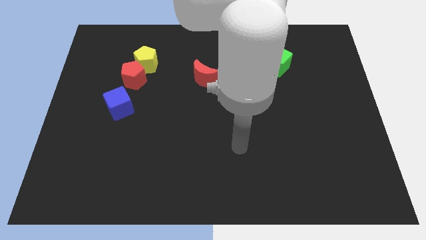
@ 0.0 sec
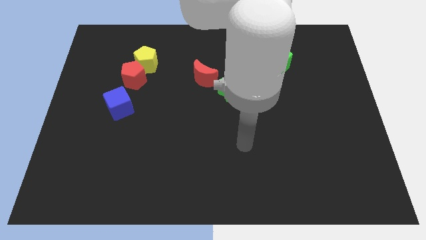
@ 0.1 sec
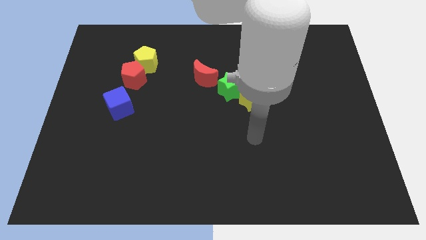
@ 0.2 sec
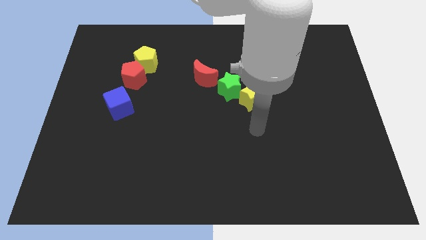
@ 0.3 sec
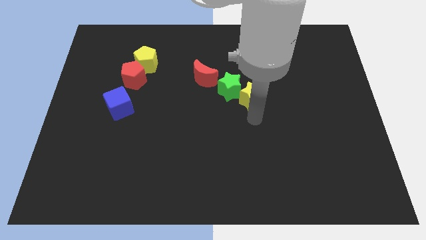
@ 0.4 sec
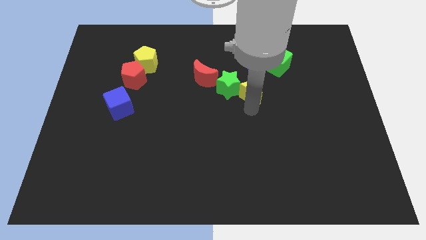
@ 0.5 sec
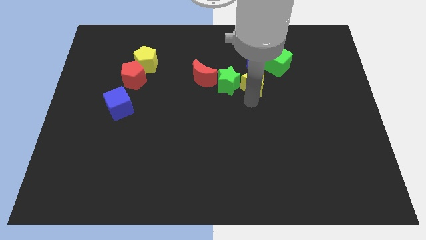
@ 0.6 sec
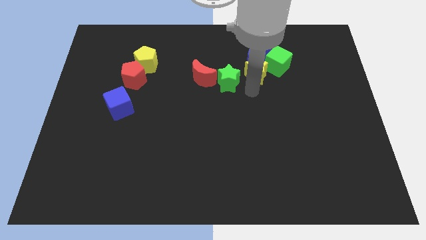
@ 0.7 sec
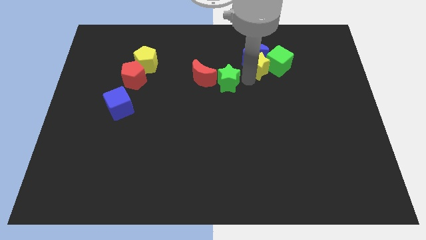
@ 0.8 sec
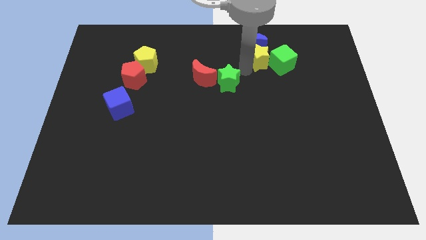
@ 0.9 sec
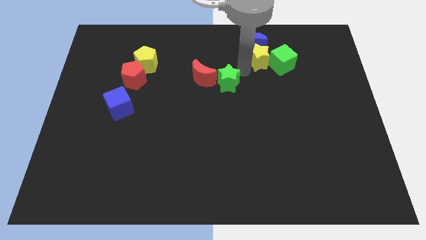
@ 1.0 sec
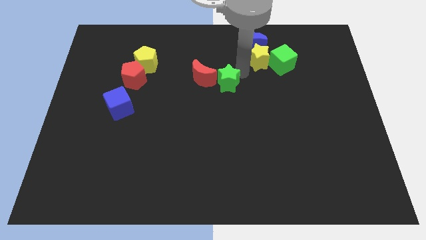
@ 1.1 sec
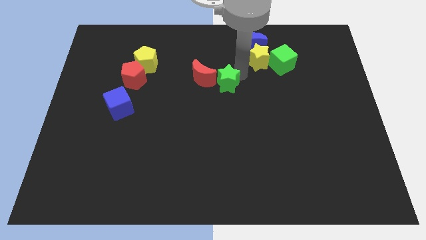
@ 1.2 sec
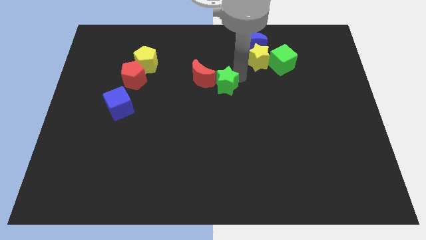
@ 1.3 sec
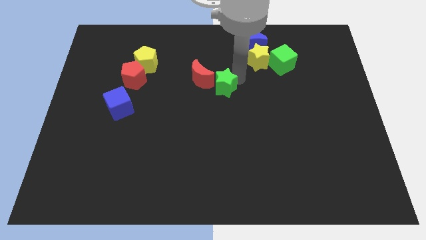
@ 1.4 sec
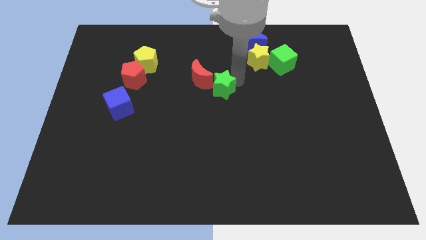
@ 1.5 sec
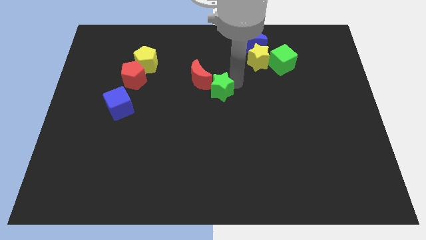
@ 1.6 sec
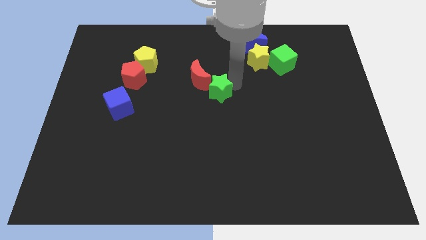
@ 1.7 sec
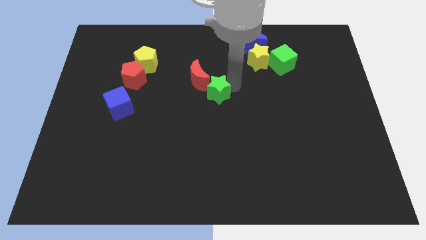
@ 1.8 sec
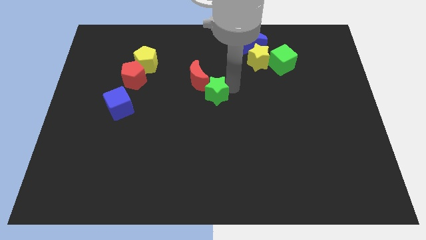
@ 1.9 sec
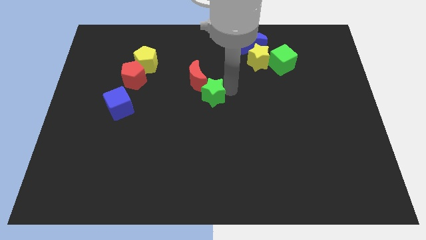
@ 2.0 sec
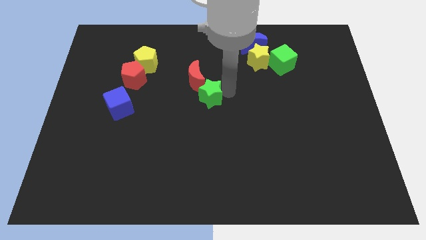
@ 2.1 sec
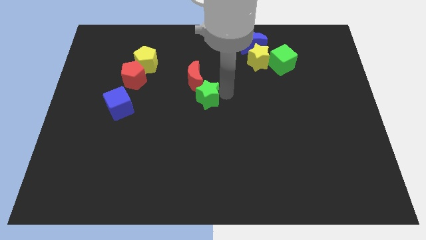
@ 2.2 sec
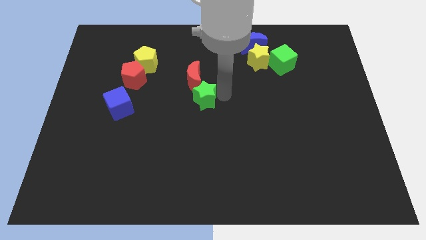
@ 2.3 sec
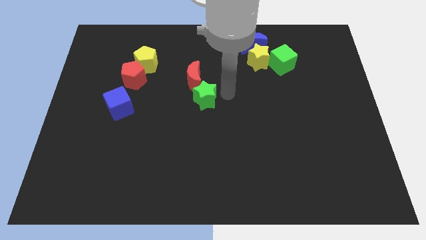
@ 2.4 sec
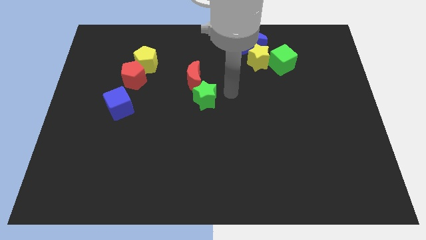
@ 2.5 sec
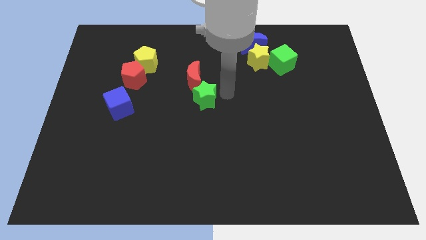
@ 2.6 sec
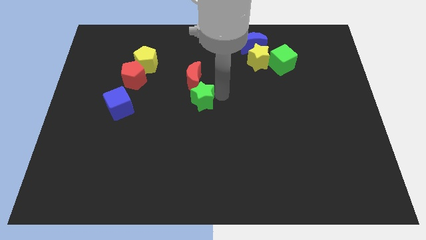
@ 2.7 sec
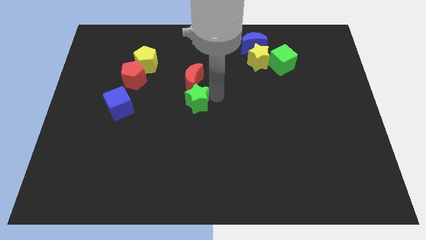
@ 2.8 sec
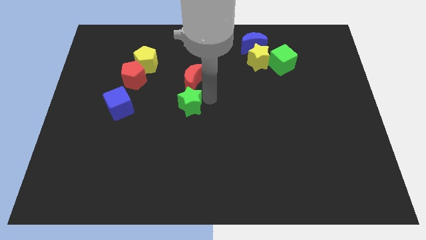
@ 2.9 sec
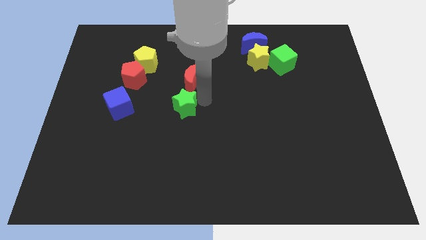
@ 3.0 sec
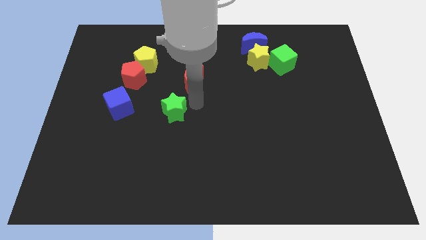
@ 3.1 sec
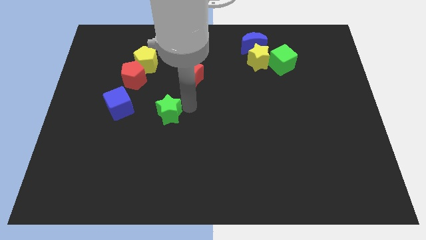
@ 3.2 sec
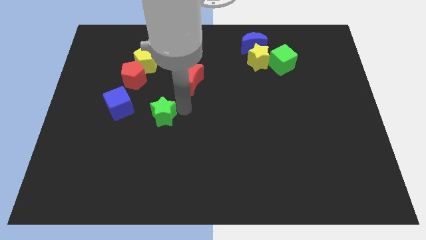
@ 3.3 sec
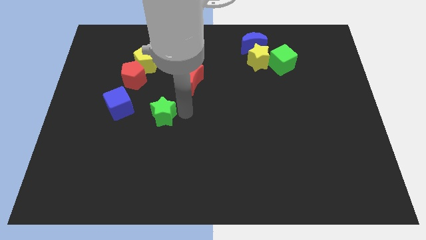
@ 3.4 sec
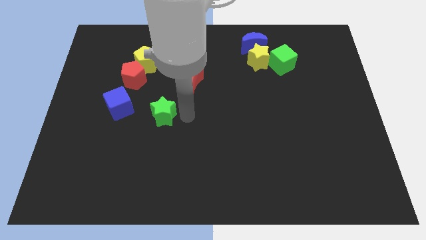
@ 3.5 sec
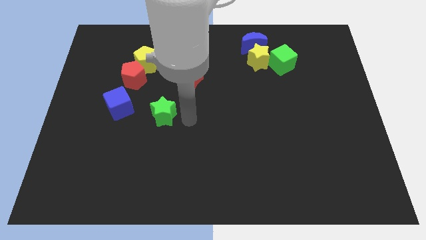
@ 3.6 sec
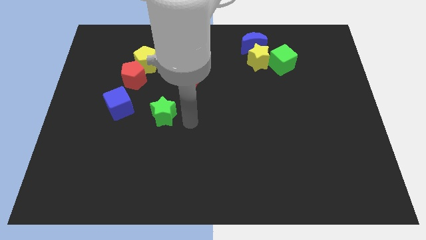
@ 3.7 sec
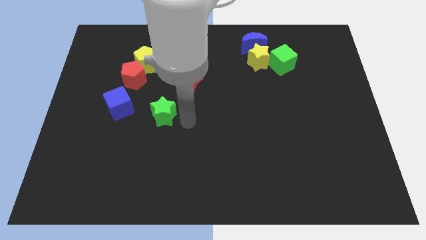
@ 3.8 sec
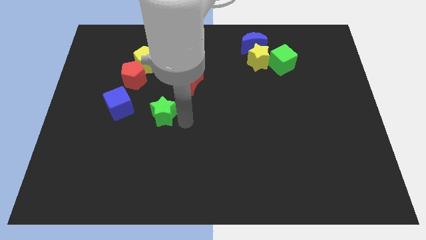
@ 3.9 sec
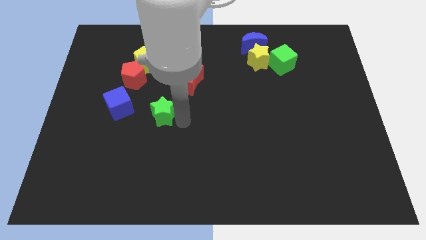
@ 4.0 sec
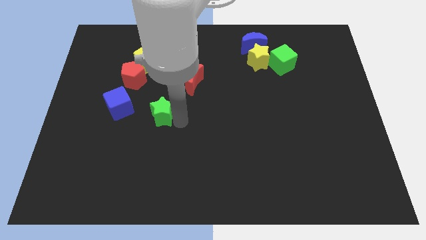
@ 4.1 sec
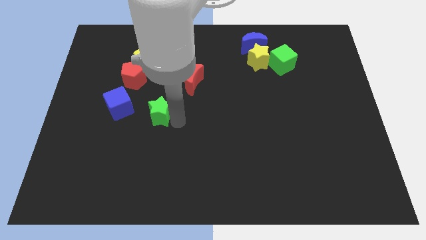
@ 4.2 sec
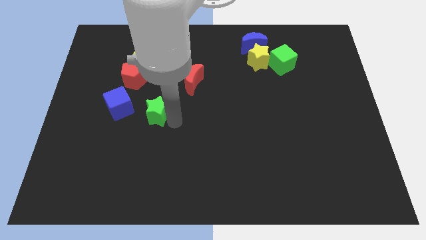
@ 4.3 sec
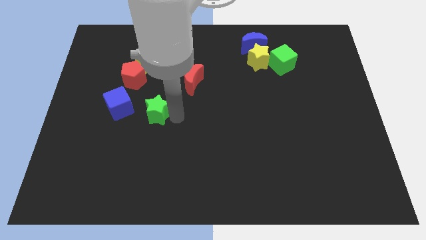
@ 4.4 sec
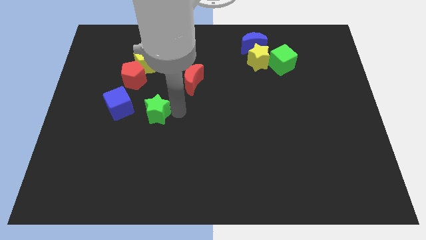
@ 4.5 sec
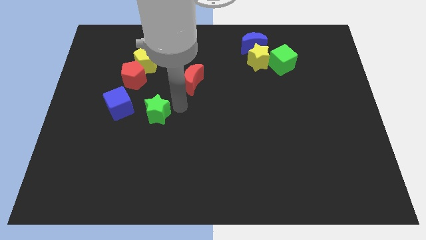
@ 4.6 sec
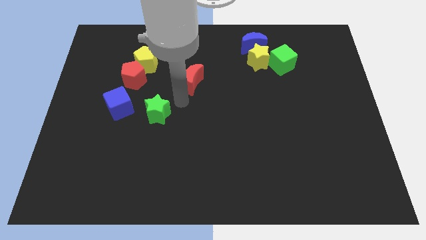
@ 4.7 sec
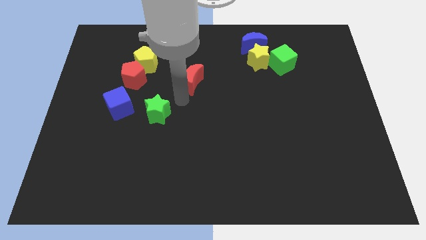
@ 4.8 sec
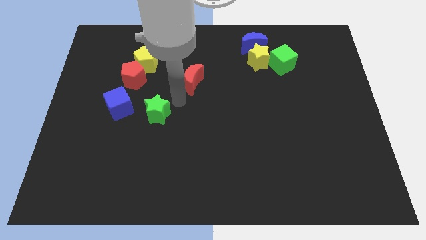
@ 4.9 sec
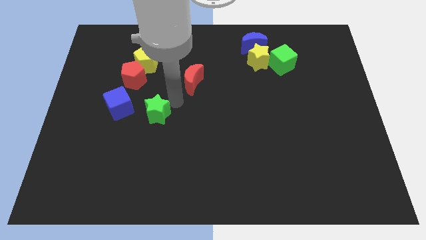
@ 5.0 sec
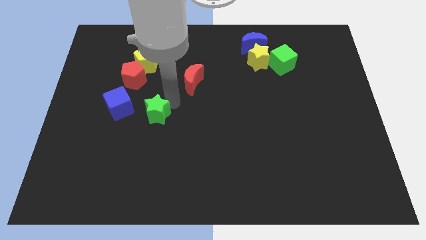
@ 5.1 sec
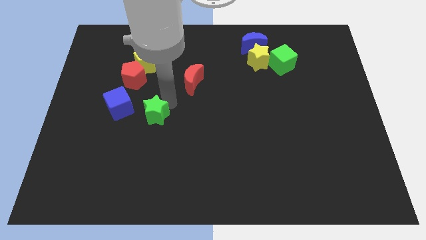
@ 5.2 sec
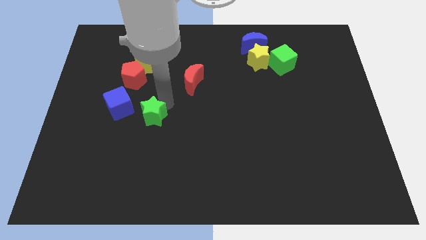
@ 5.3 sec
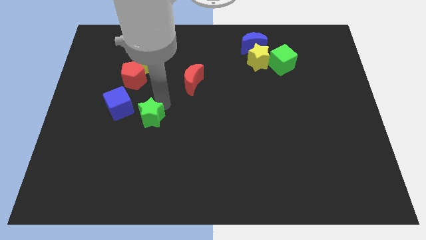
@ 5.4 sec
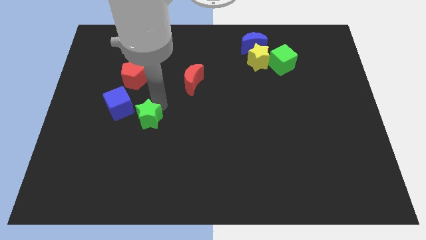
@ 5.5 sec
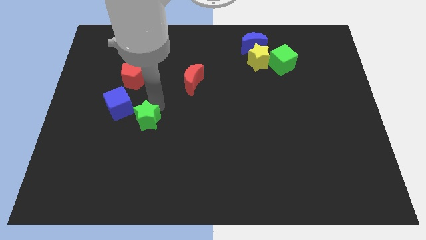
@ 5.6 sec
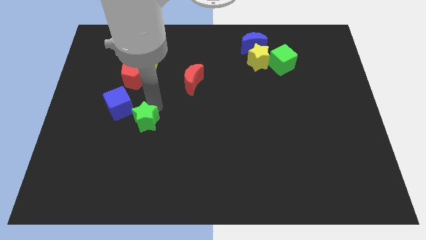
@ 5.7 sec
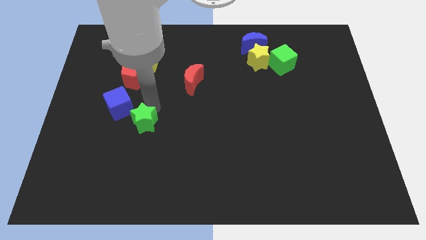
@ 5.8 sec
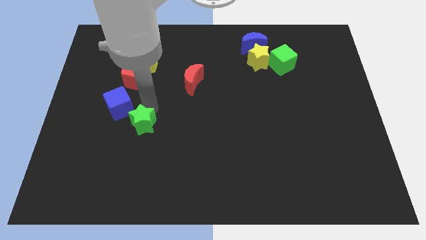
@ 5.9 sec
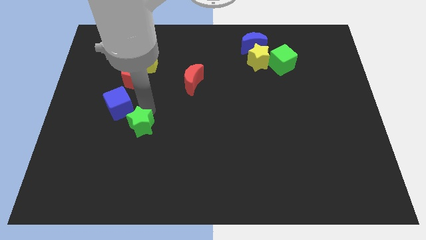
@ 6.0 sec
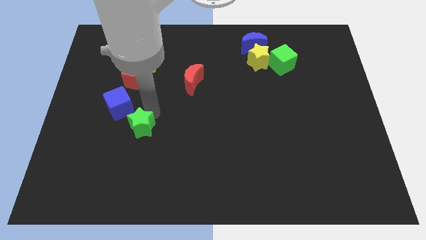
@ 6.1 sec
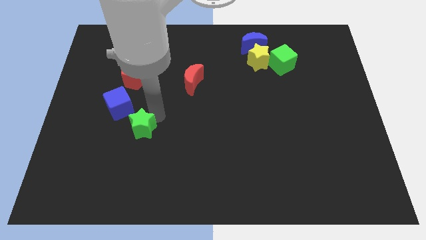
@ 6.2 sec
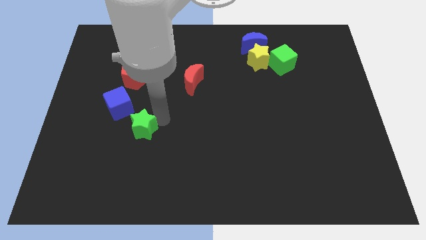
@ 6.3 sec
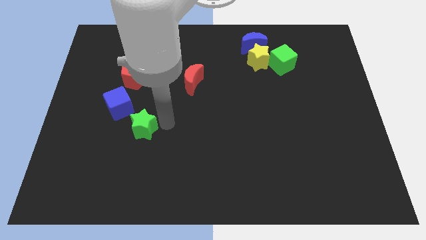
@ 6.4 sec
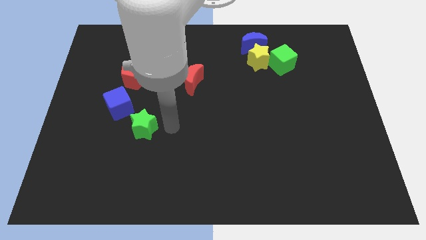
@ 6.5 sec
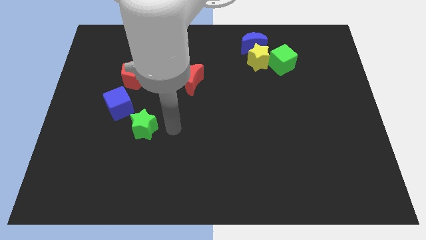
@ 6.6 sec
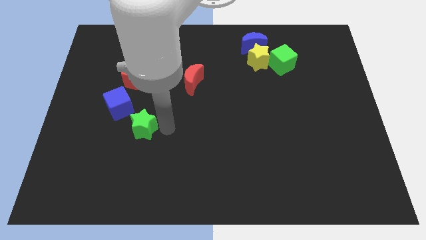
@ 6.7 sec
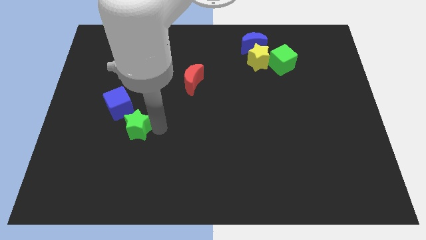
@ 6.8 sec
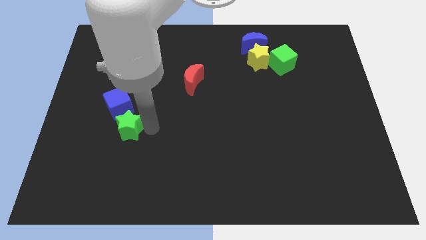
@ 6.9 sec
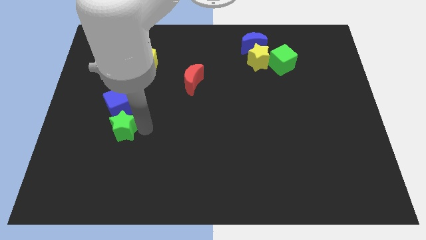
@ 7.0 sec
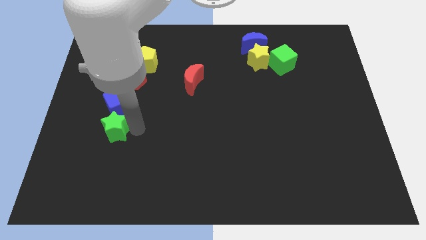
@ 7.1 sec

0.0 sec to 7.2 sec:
push the green star diagonally down and to the left of the blue cube
